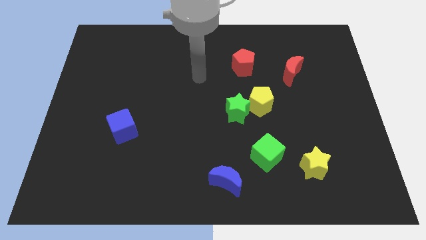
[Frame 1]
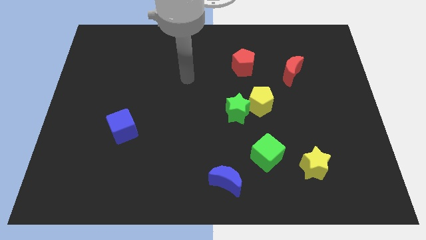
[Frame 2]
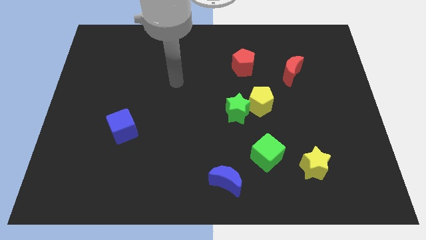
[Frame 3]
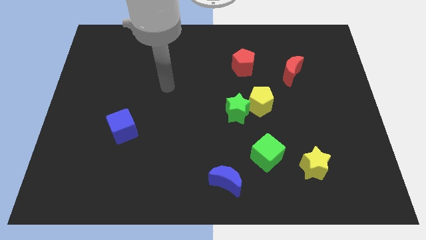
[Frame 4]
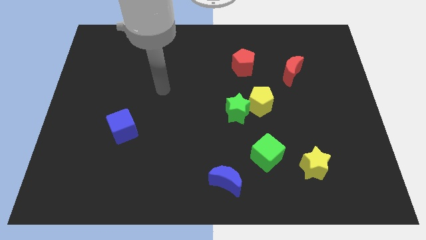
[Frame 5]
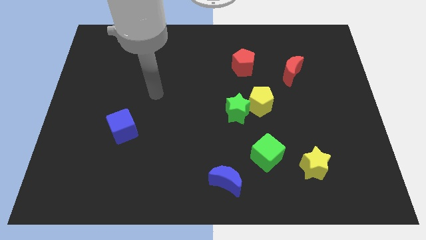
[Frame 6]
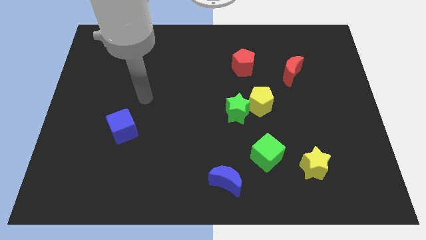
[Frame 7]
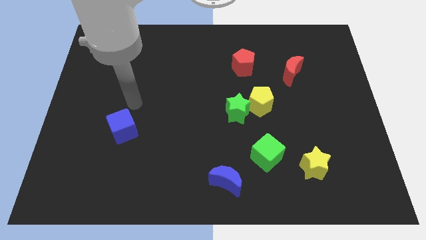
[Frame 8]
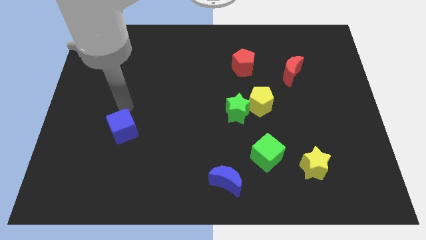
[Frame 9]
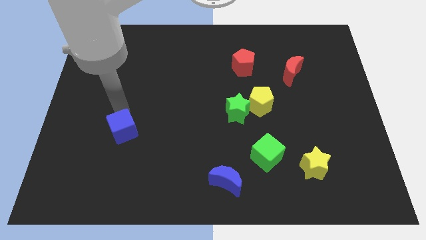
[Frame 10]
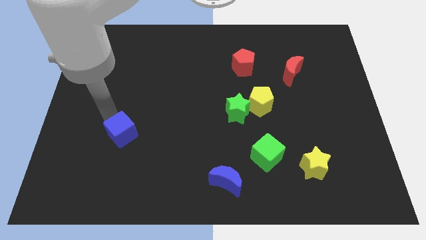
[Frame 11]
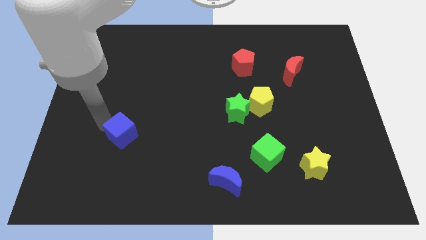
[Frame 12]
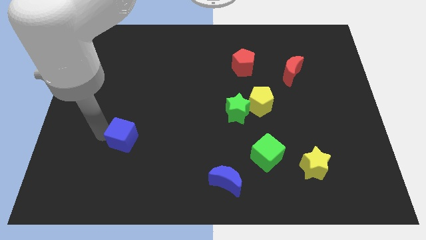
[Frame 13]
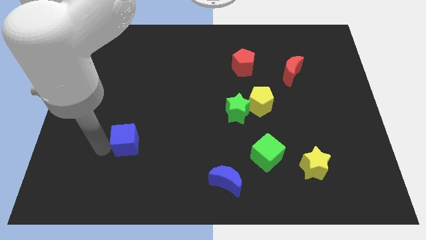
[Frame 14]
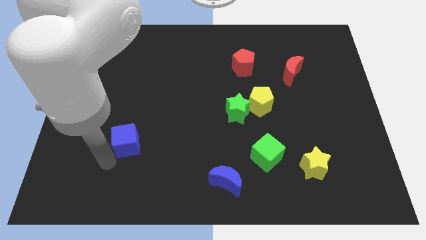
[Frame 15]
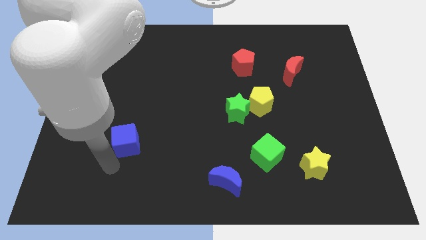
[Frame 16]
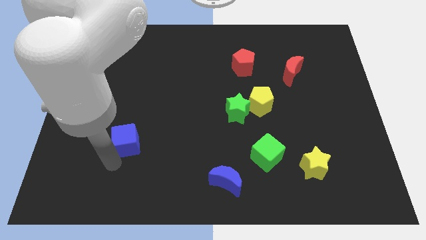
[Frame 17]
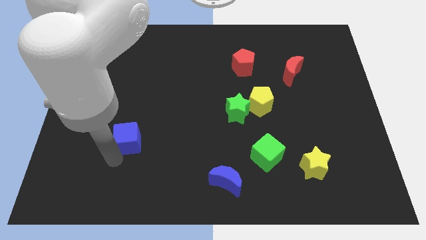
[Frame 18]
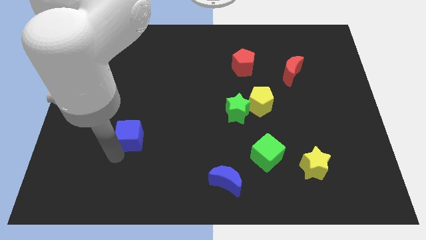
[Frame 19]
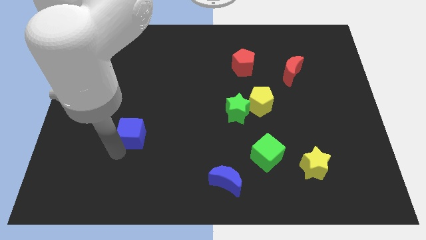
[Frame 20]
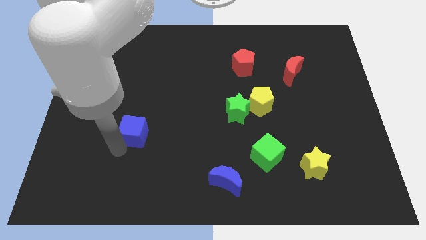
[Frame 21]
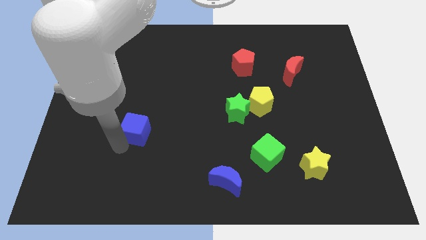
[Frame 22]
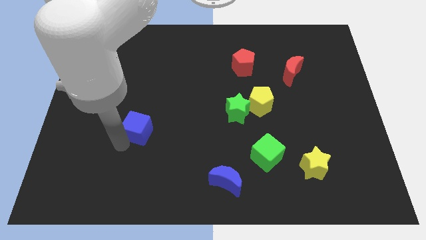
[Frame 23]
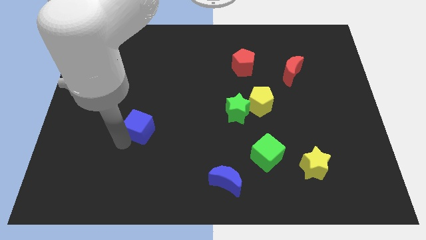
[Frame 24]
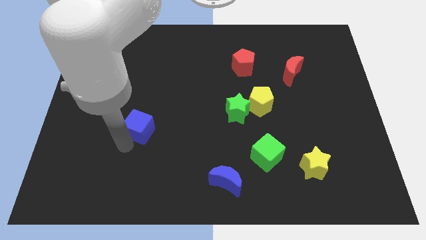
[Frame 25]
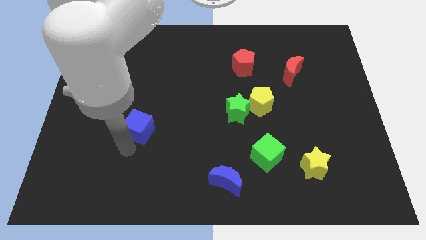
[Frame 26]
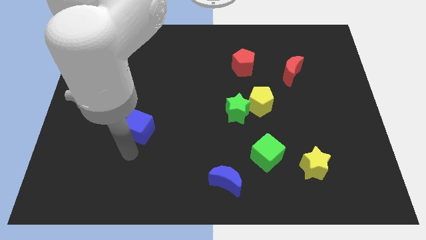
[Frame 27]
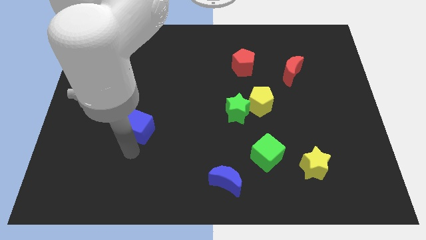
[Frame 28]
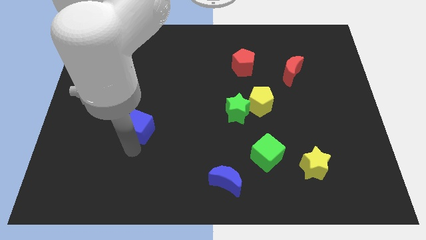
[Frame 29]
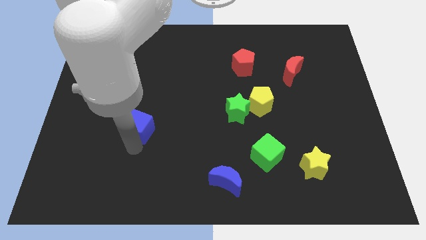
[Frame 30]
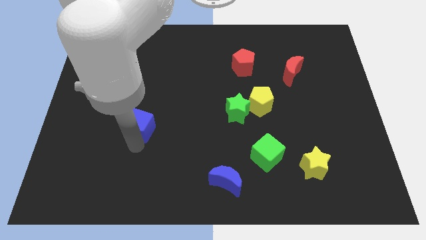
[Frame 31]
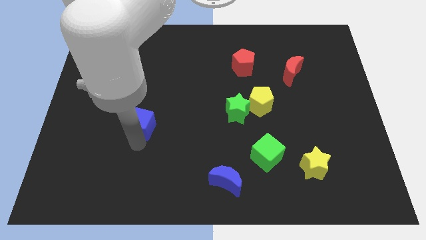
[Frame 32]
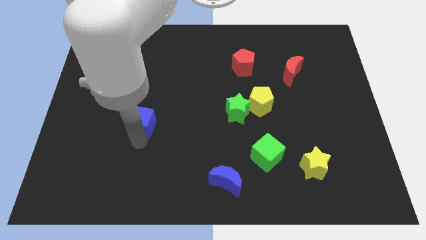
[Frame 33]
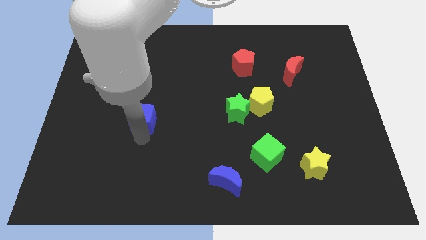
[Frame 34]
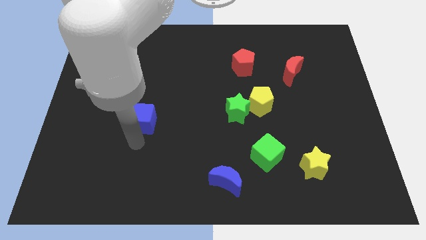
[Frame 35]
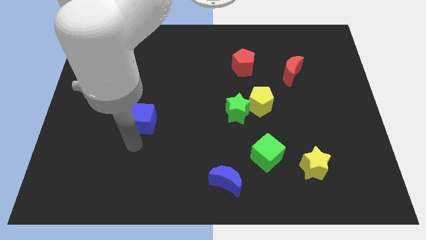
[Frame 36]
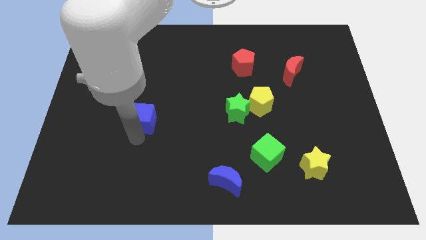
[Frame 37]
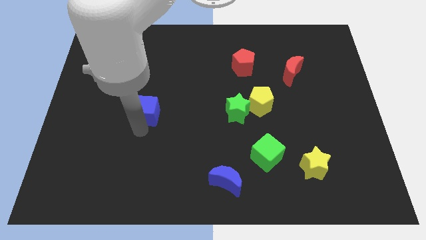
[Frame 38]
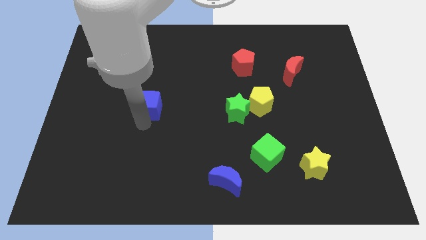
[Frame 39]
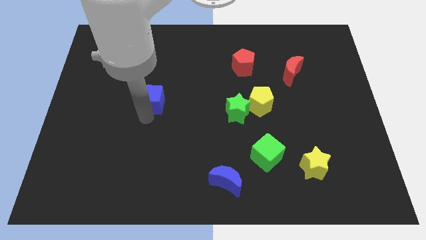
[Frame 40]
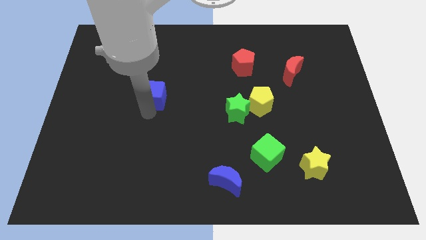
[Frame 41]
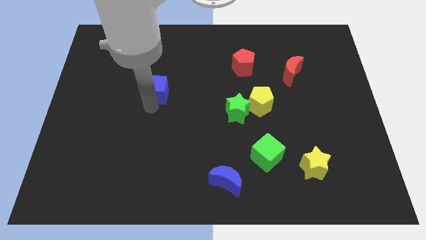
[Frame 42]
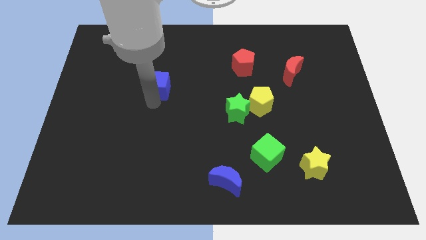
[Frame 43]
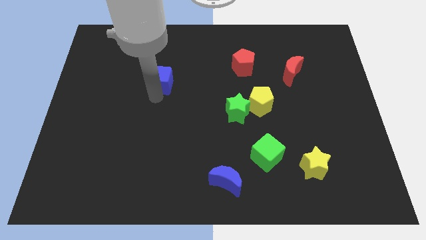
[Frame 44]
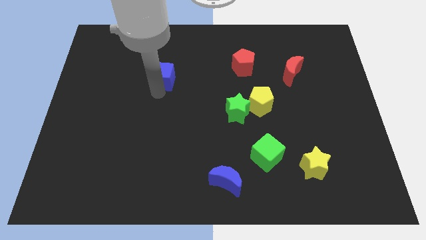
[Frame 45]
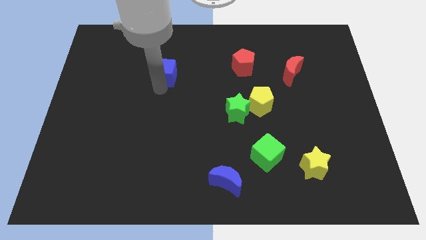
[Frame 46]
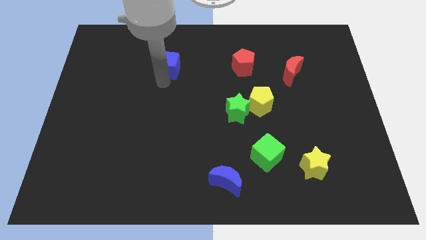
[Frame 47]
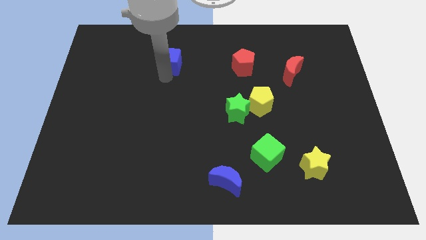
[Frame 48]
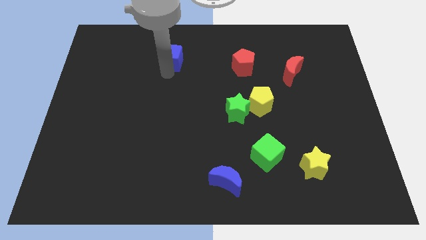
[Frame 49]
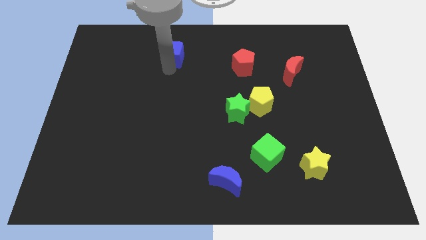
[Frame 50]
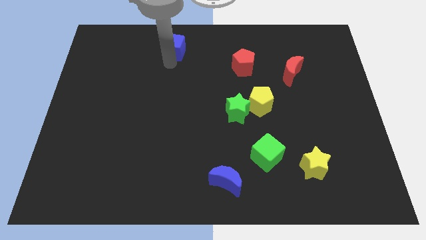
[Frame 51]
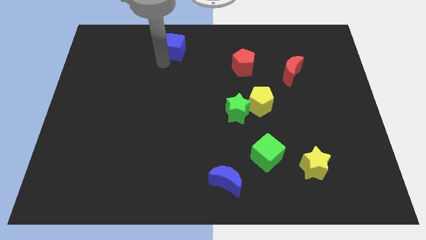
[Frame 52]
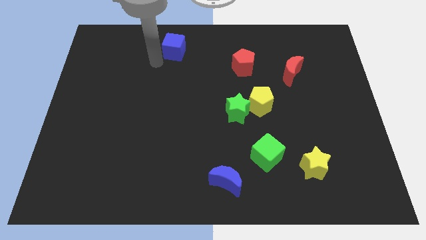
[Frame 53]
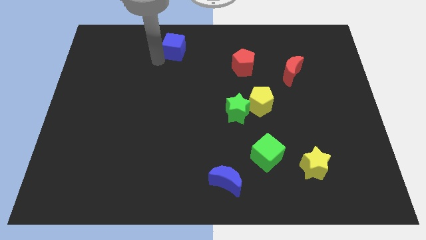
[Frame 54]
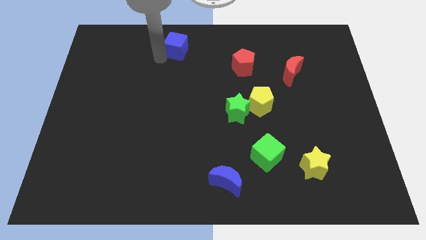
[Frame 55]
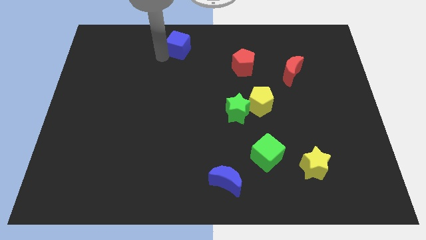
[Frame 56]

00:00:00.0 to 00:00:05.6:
put the blue cube to the towards your base

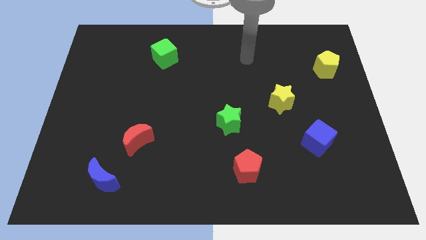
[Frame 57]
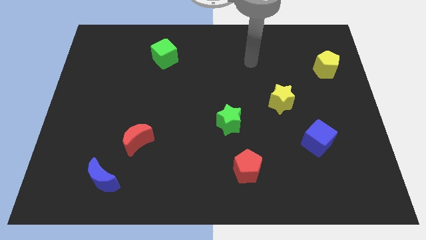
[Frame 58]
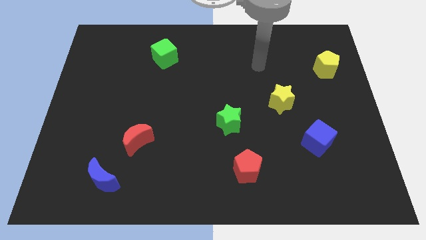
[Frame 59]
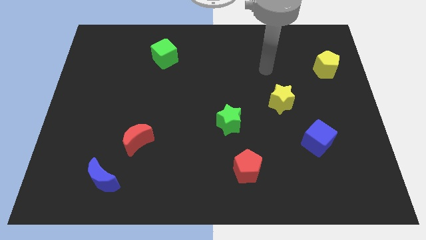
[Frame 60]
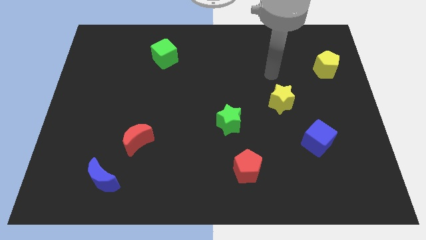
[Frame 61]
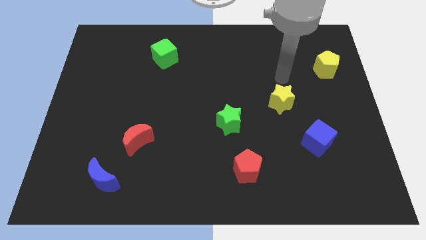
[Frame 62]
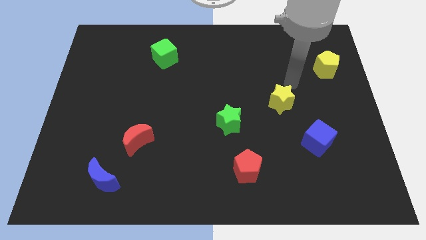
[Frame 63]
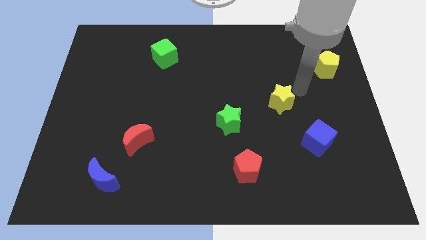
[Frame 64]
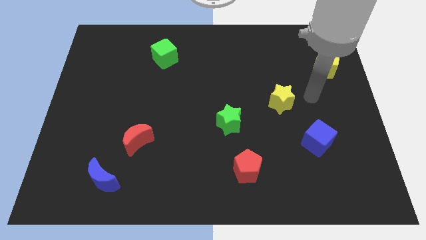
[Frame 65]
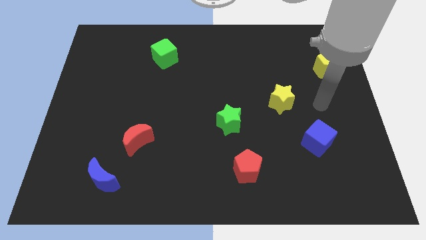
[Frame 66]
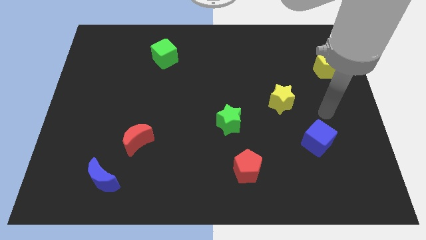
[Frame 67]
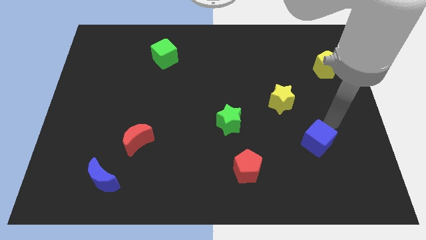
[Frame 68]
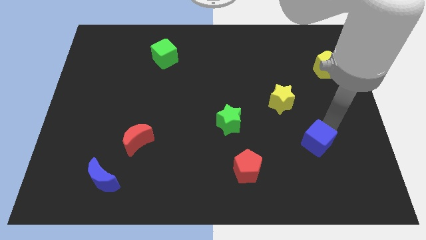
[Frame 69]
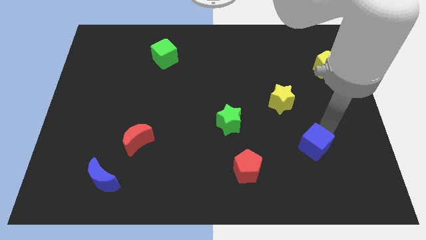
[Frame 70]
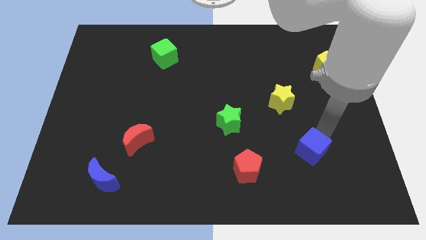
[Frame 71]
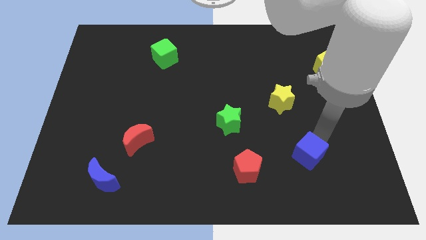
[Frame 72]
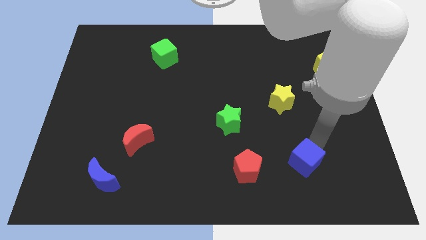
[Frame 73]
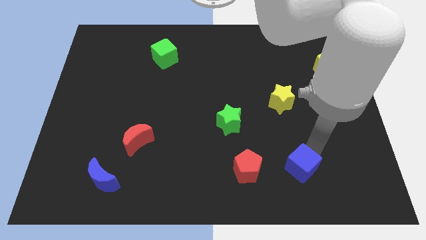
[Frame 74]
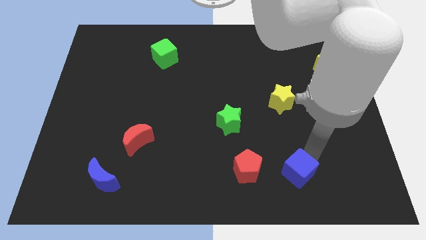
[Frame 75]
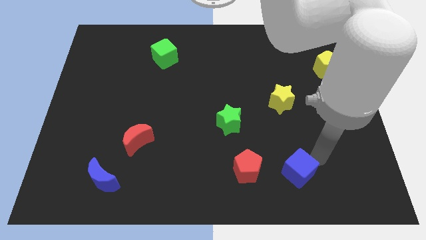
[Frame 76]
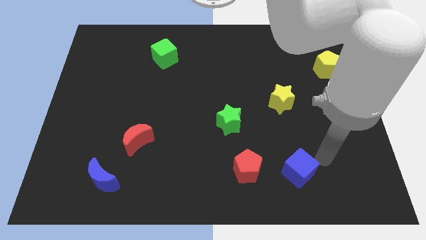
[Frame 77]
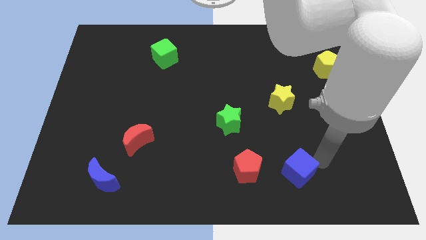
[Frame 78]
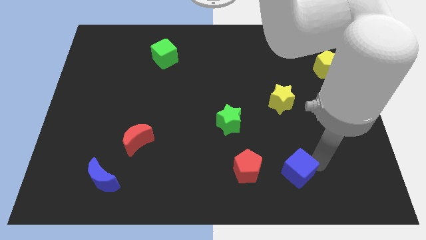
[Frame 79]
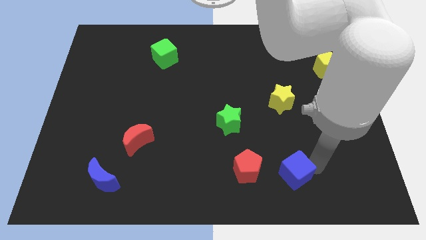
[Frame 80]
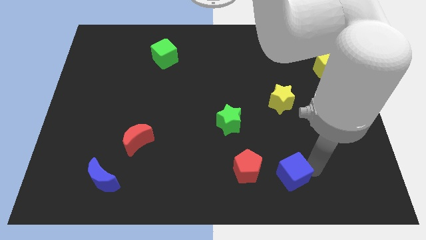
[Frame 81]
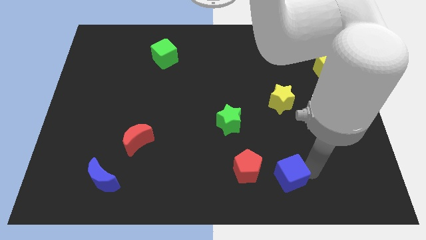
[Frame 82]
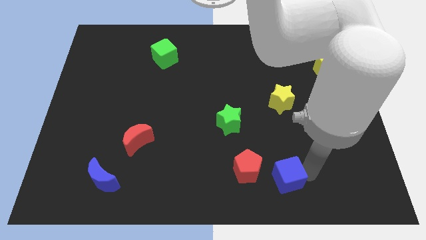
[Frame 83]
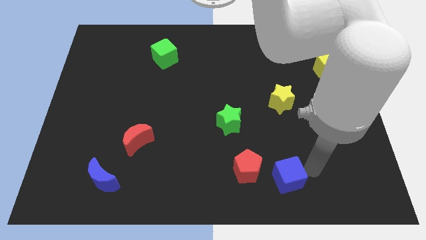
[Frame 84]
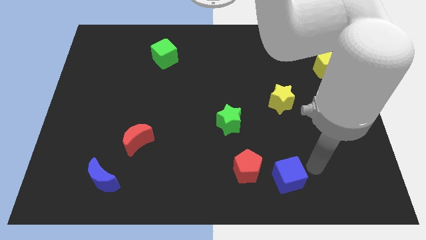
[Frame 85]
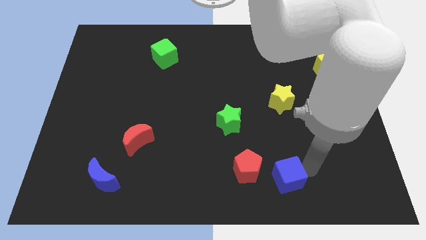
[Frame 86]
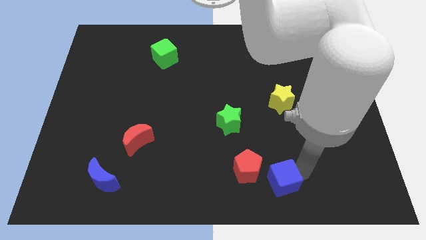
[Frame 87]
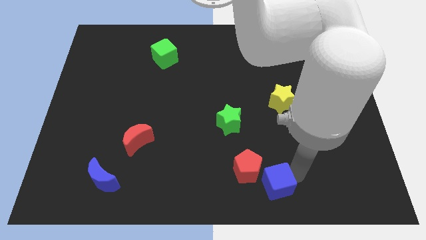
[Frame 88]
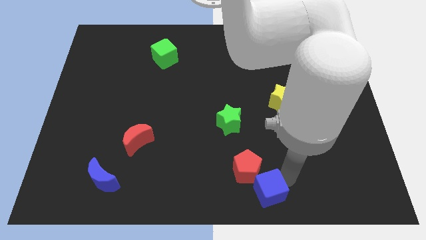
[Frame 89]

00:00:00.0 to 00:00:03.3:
push the blue cube to the bottom side
